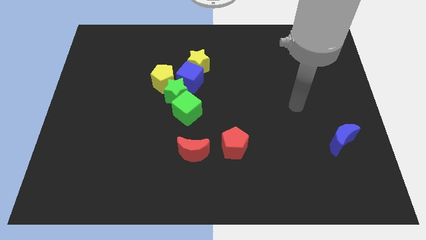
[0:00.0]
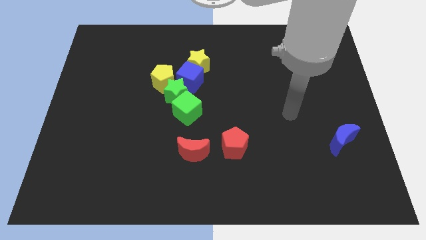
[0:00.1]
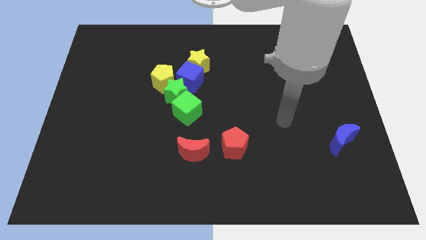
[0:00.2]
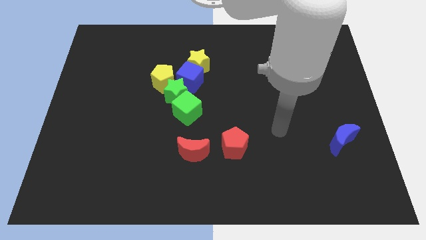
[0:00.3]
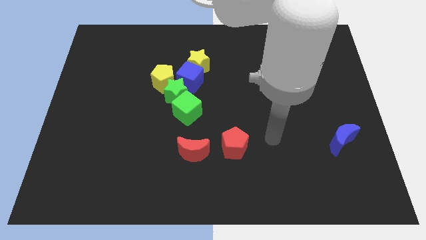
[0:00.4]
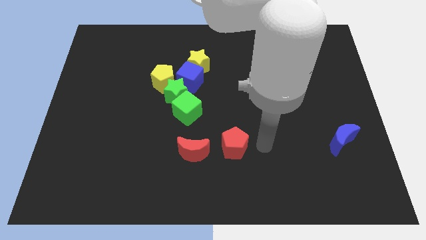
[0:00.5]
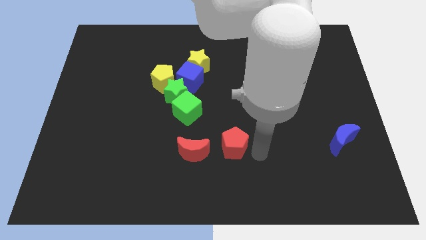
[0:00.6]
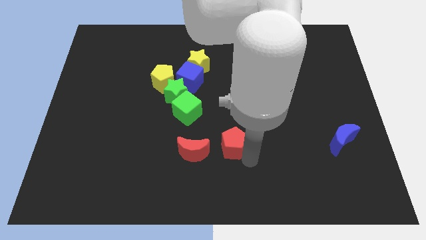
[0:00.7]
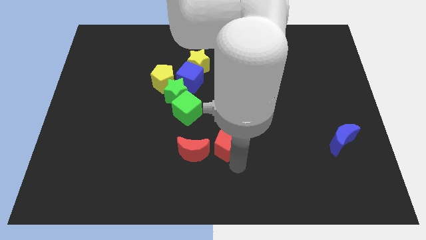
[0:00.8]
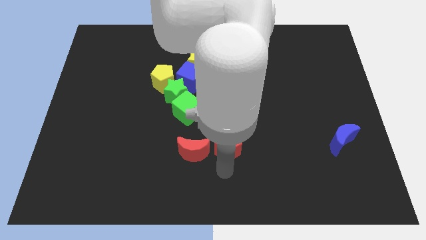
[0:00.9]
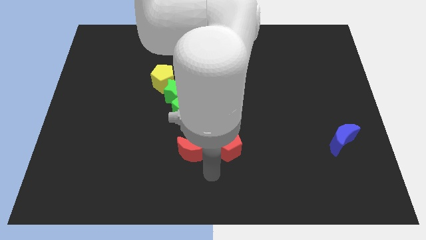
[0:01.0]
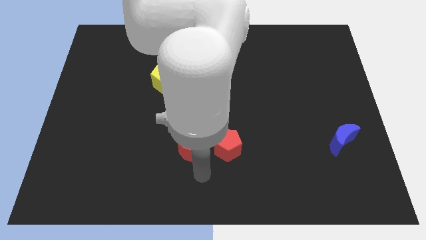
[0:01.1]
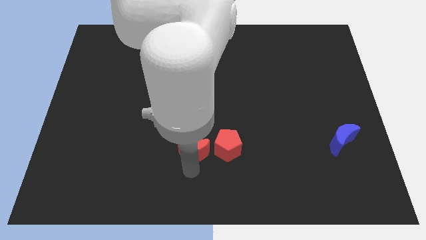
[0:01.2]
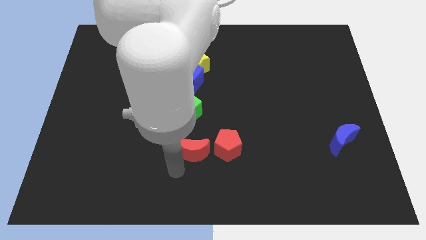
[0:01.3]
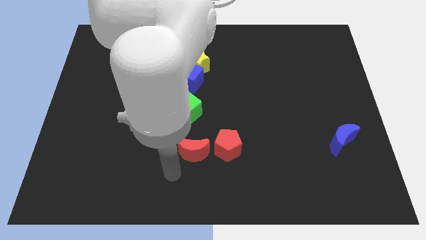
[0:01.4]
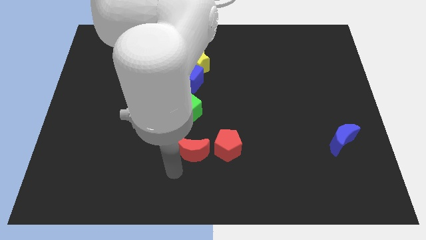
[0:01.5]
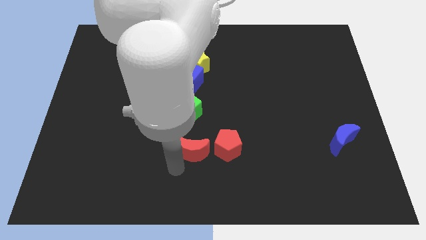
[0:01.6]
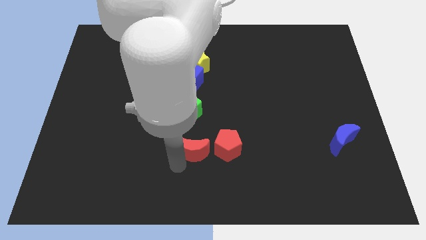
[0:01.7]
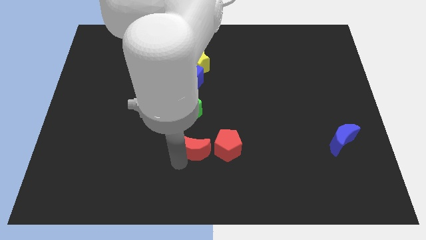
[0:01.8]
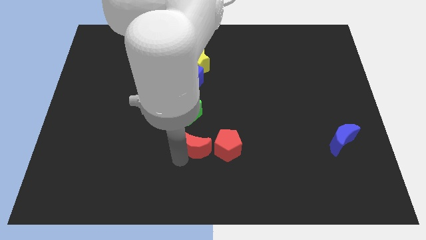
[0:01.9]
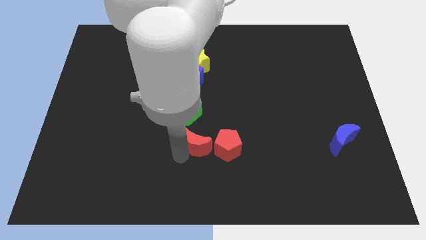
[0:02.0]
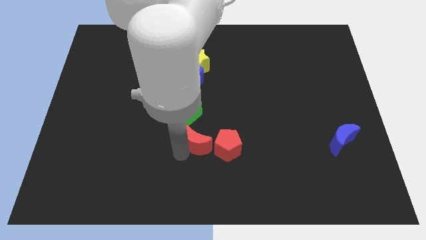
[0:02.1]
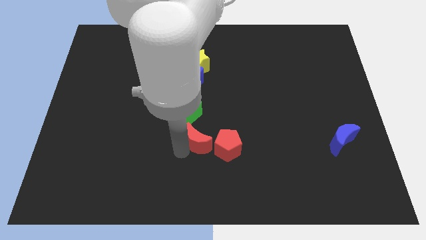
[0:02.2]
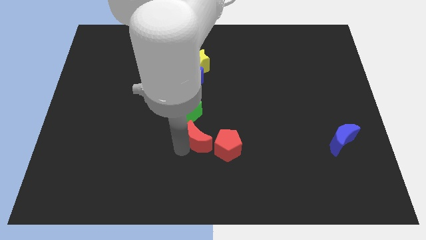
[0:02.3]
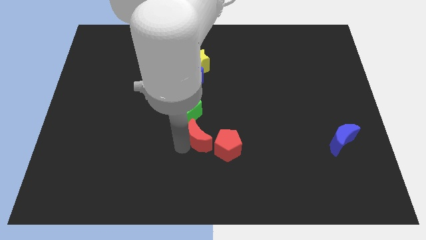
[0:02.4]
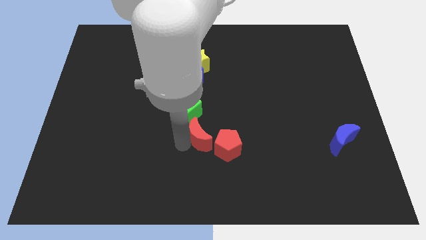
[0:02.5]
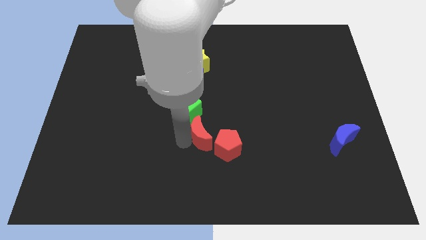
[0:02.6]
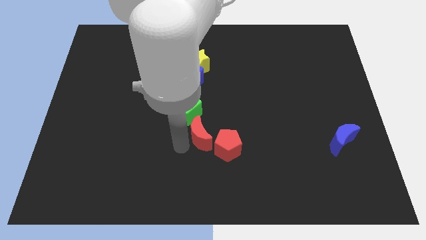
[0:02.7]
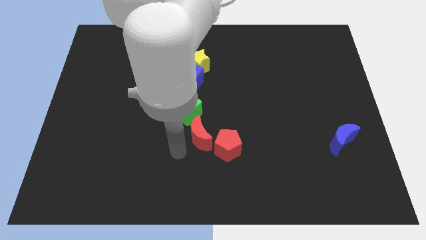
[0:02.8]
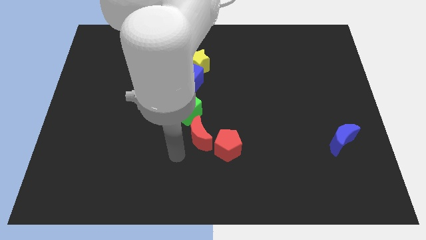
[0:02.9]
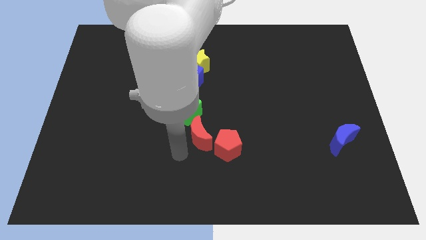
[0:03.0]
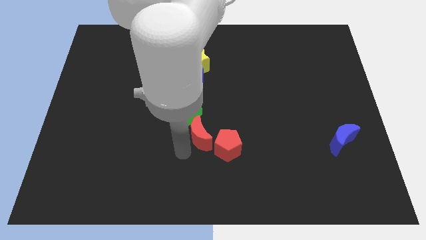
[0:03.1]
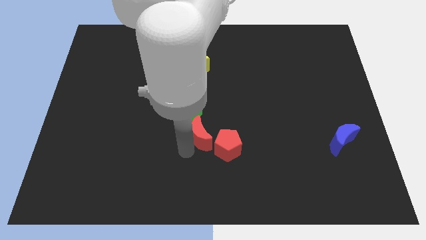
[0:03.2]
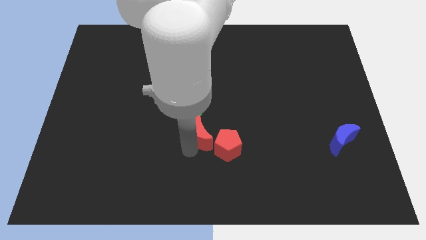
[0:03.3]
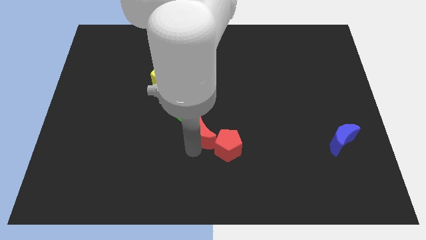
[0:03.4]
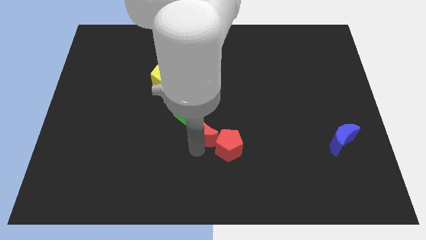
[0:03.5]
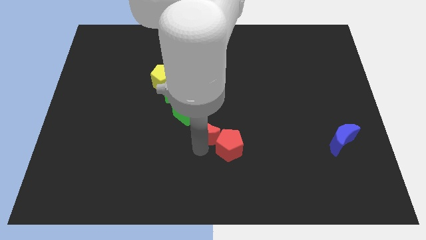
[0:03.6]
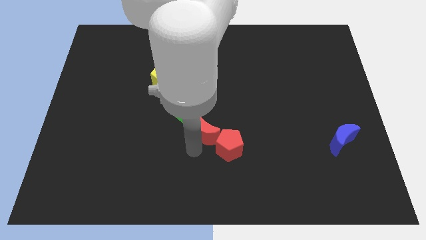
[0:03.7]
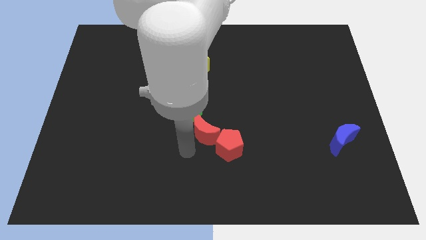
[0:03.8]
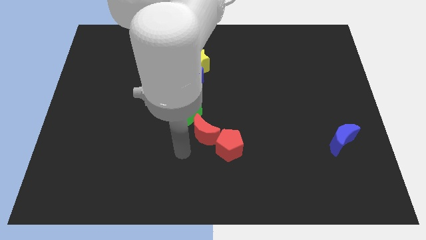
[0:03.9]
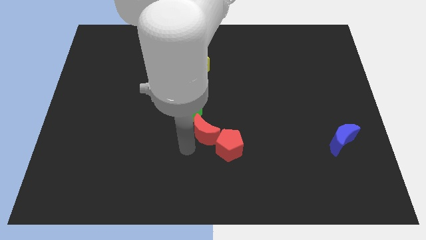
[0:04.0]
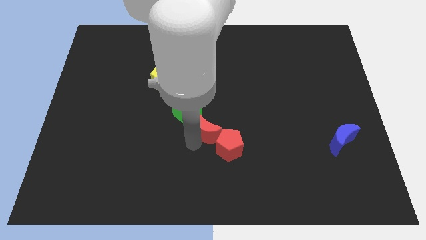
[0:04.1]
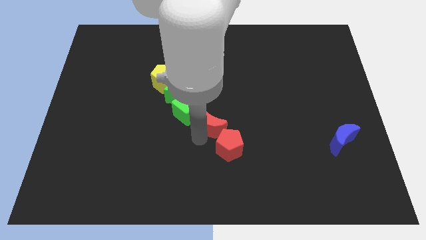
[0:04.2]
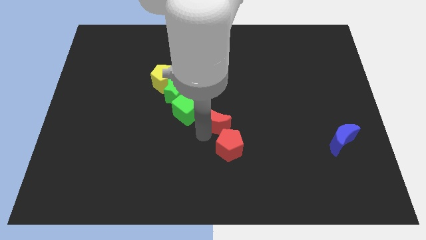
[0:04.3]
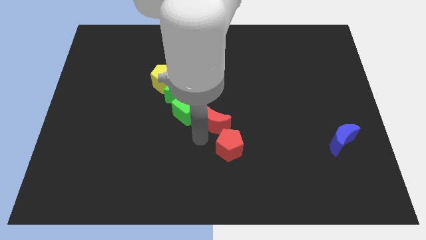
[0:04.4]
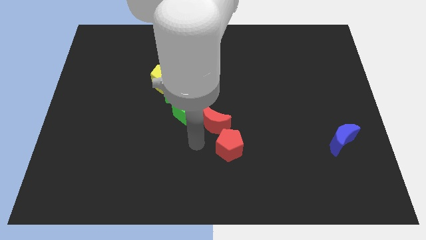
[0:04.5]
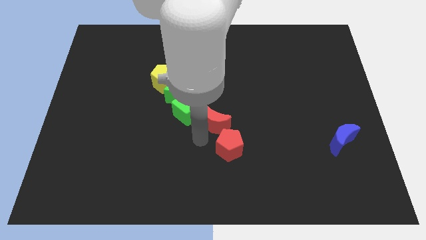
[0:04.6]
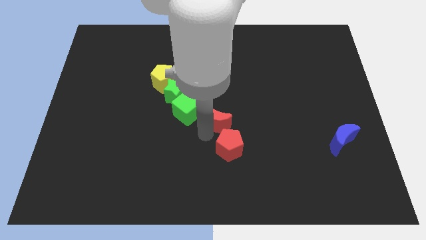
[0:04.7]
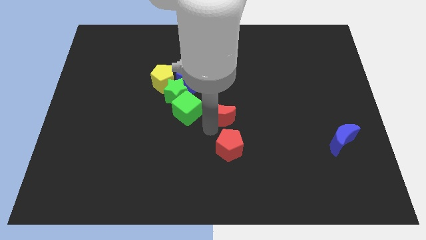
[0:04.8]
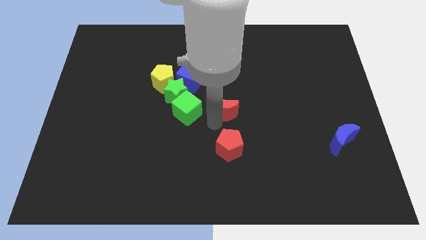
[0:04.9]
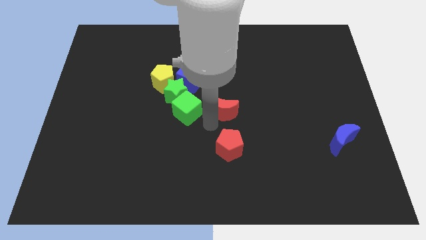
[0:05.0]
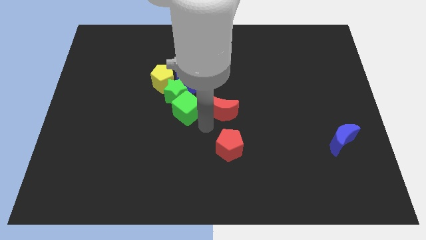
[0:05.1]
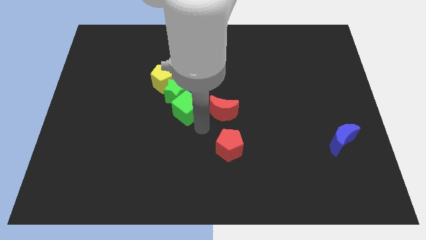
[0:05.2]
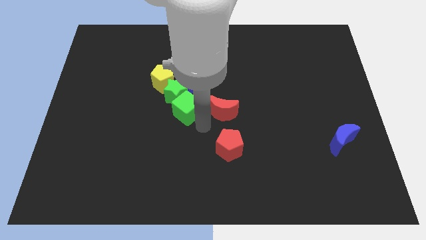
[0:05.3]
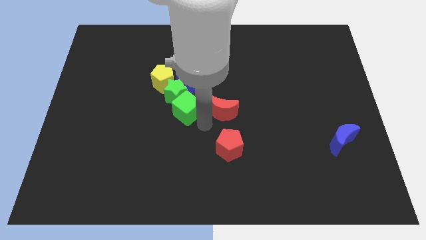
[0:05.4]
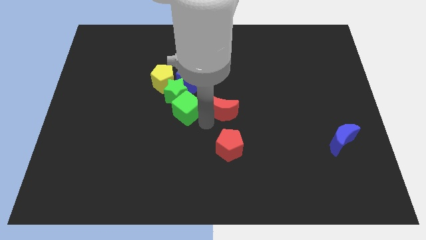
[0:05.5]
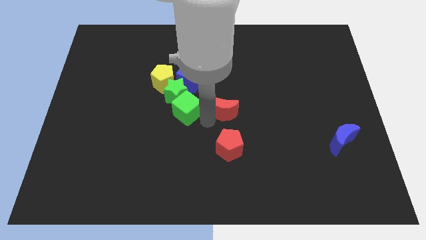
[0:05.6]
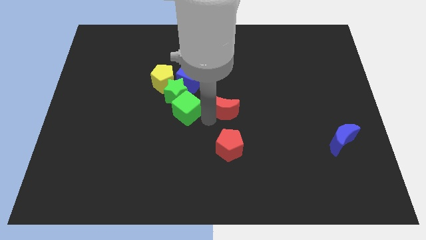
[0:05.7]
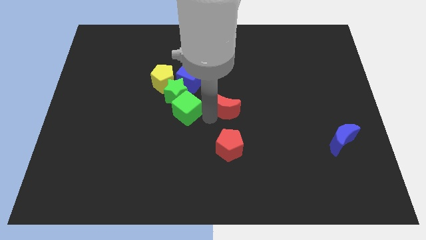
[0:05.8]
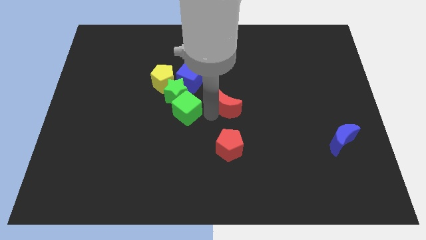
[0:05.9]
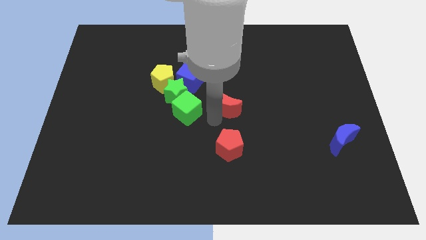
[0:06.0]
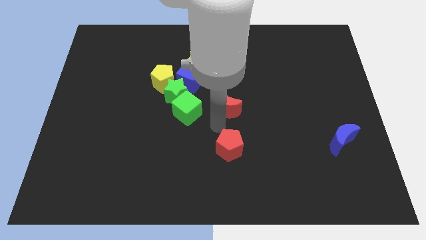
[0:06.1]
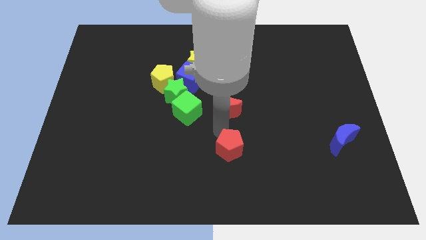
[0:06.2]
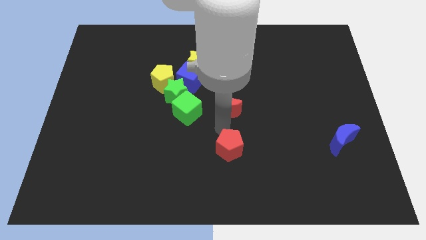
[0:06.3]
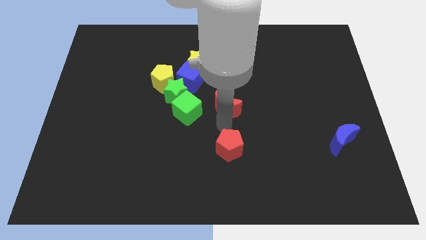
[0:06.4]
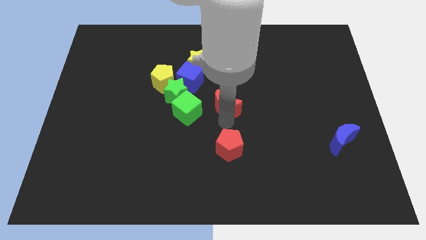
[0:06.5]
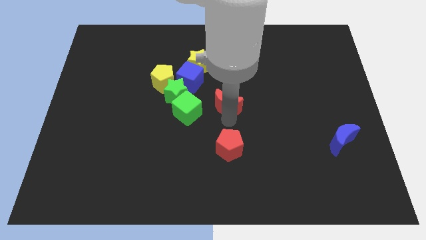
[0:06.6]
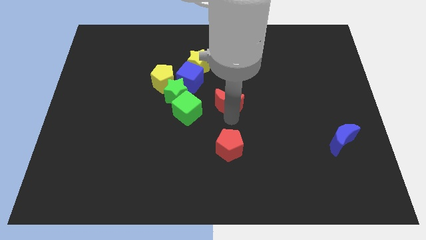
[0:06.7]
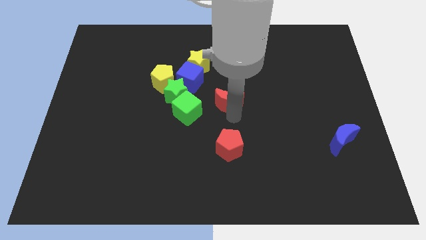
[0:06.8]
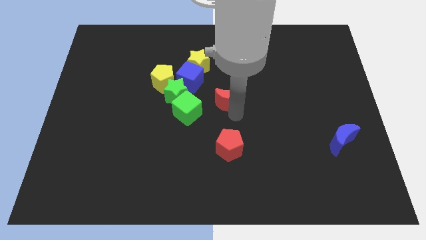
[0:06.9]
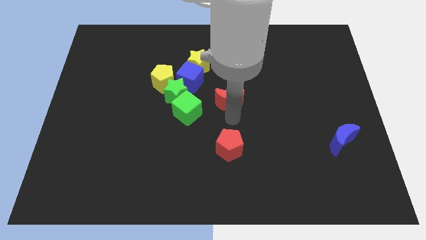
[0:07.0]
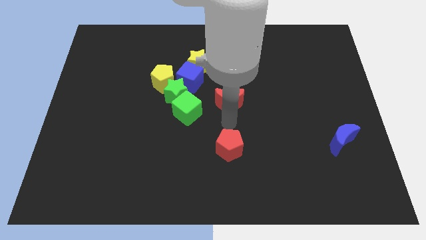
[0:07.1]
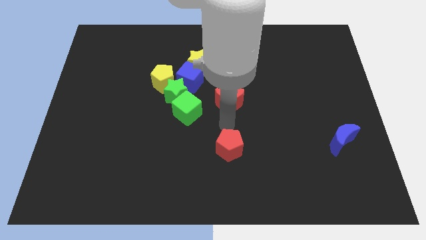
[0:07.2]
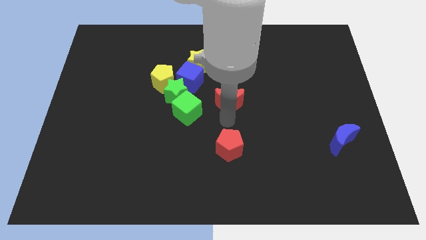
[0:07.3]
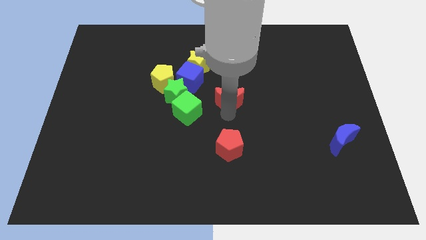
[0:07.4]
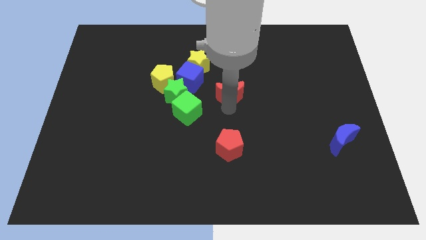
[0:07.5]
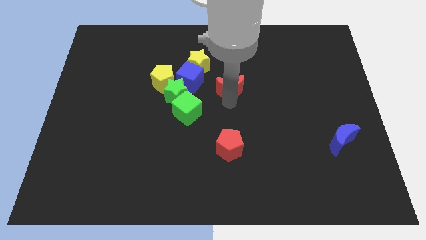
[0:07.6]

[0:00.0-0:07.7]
move the red moon to the right side of the blue cube
